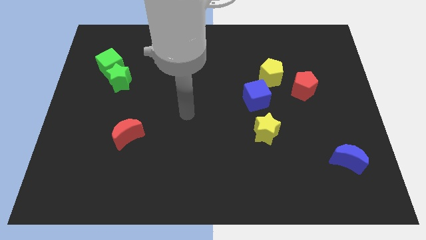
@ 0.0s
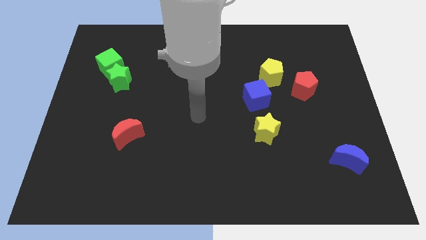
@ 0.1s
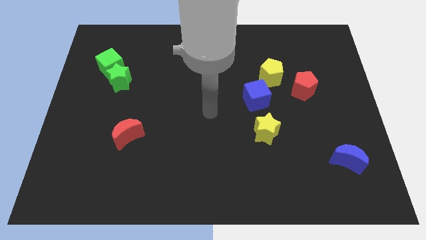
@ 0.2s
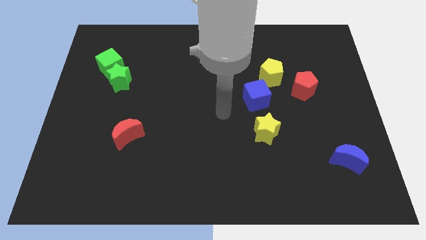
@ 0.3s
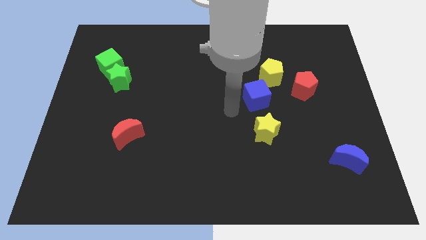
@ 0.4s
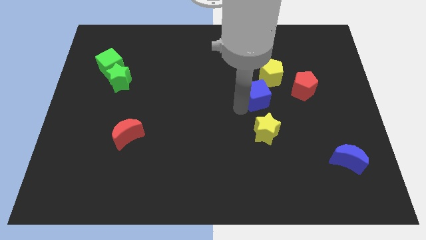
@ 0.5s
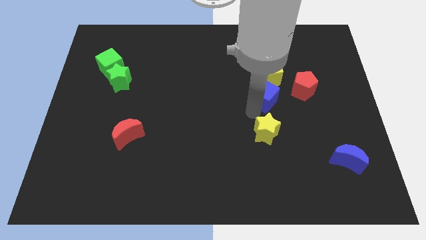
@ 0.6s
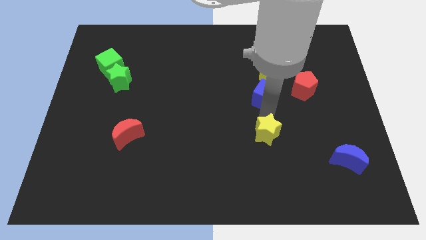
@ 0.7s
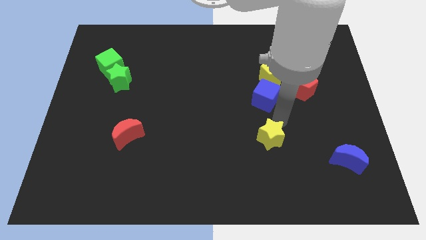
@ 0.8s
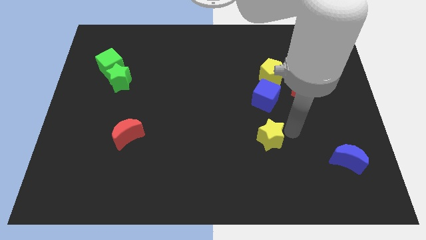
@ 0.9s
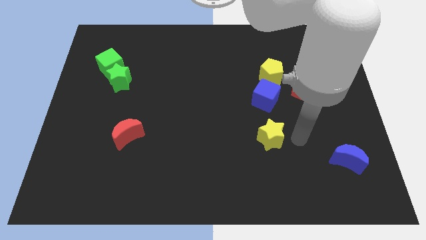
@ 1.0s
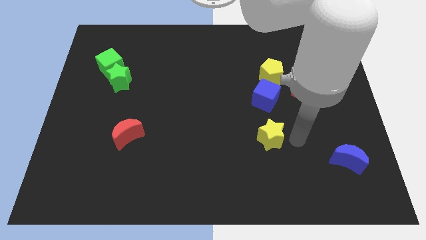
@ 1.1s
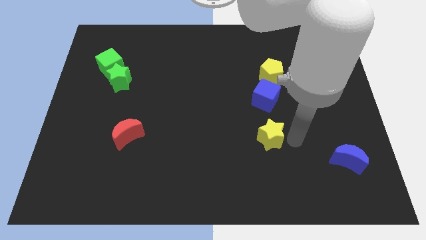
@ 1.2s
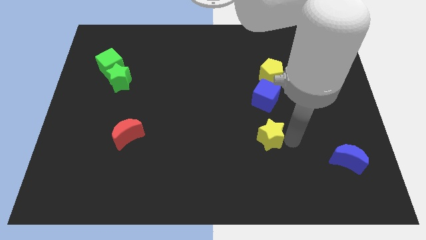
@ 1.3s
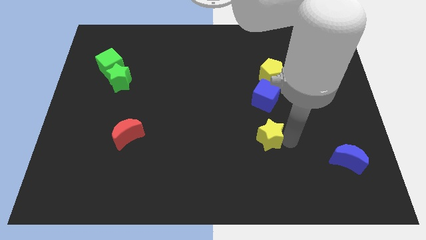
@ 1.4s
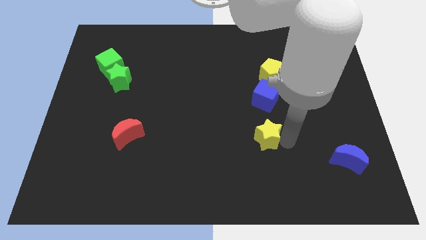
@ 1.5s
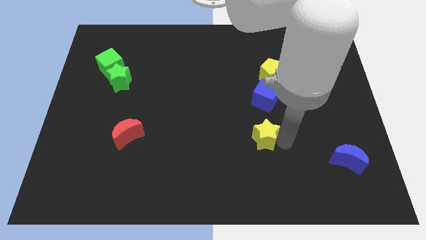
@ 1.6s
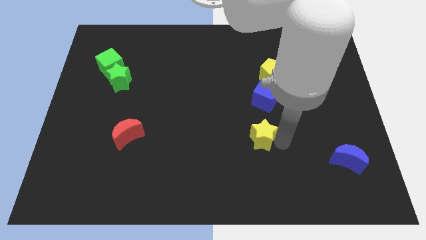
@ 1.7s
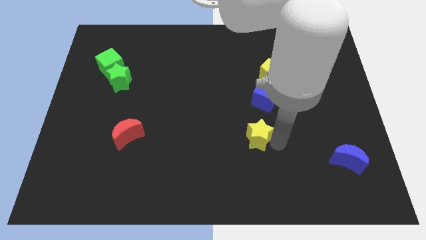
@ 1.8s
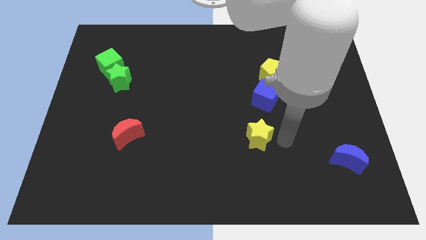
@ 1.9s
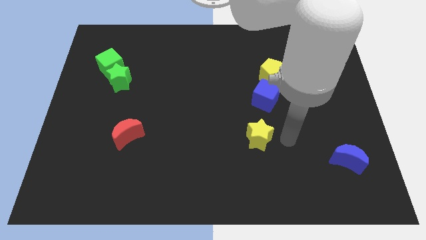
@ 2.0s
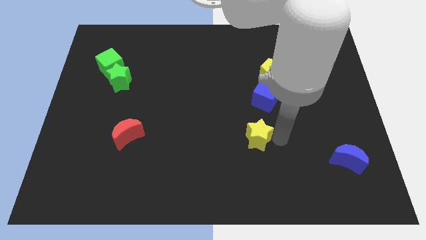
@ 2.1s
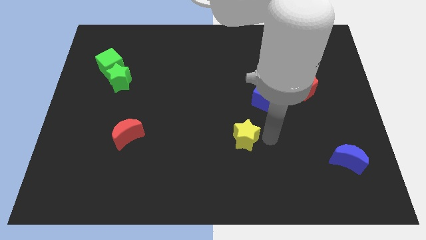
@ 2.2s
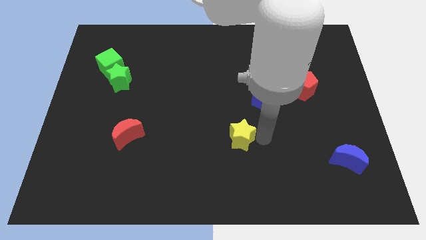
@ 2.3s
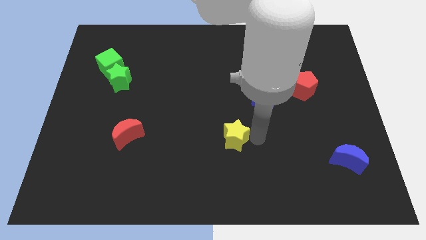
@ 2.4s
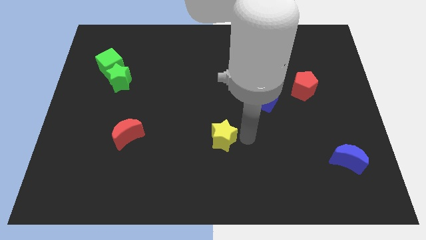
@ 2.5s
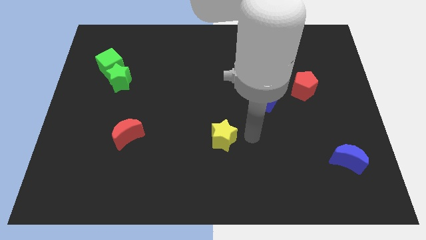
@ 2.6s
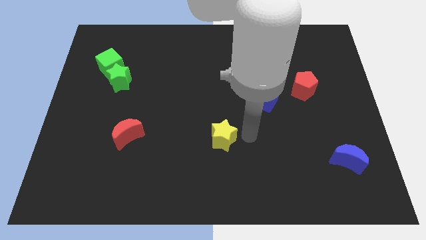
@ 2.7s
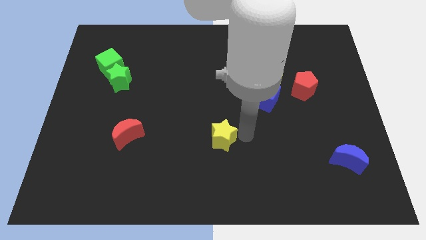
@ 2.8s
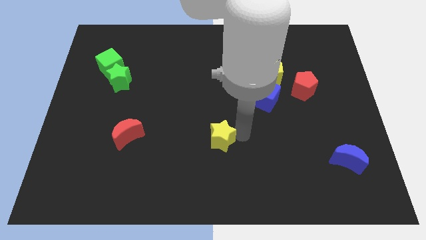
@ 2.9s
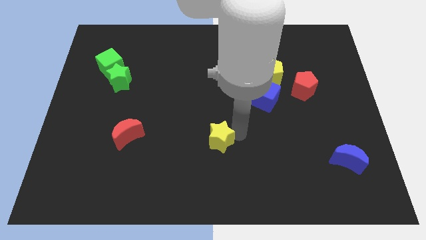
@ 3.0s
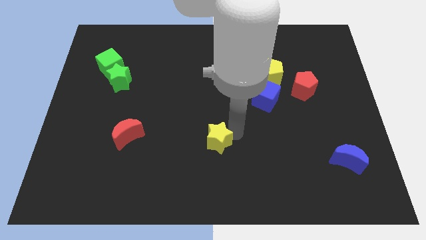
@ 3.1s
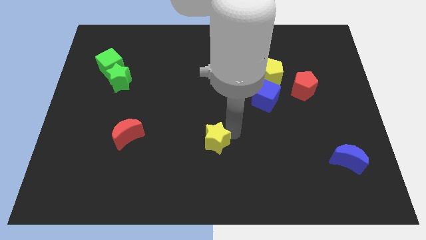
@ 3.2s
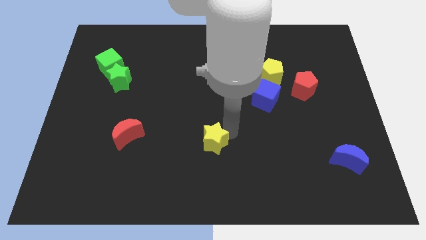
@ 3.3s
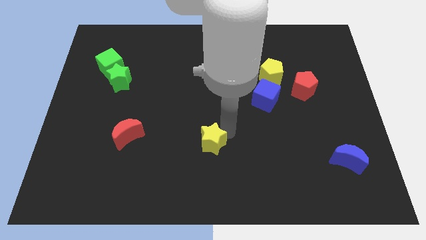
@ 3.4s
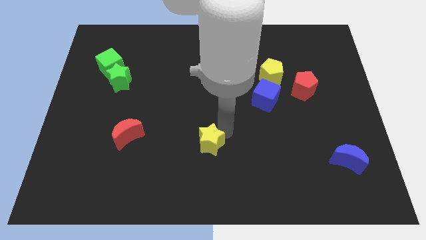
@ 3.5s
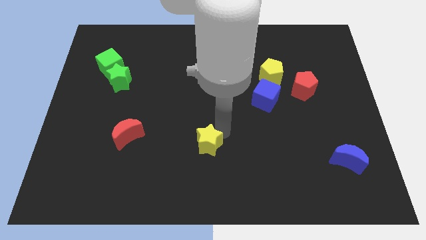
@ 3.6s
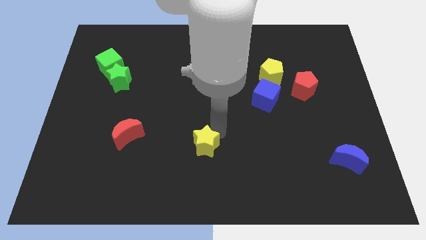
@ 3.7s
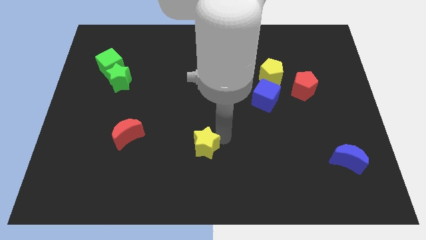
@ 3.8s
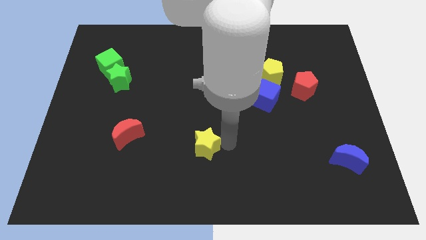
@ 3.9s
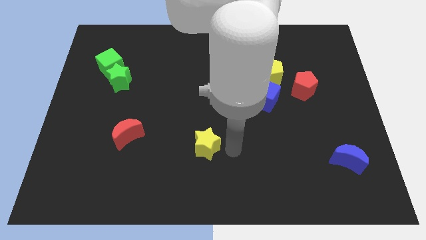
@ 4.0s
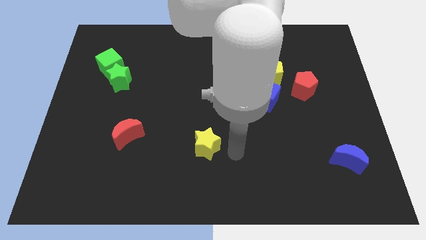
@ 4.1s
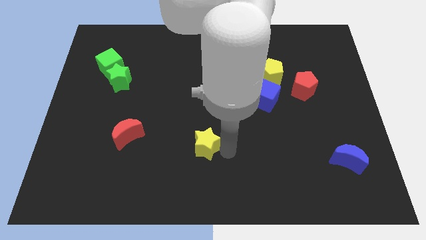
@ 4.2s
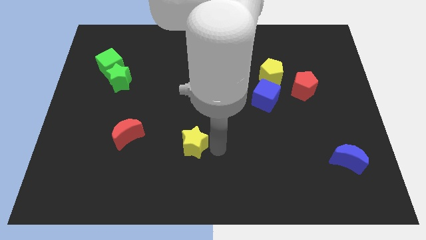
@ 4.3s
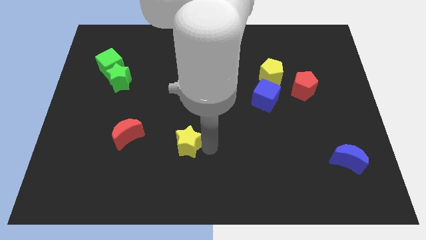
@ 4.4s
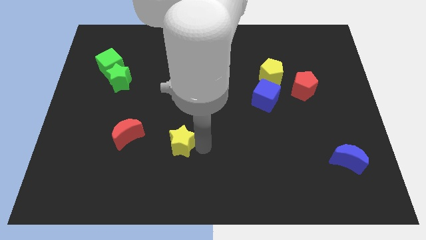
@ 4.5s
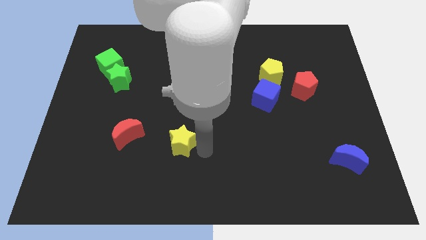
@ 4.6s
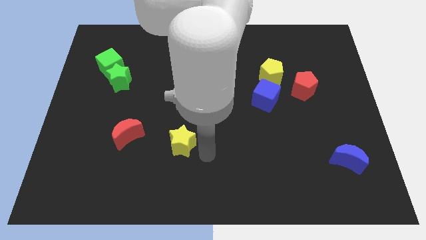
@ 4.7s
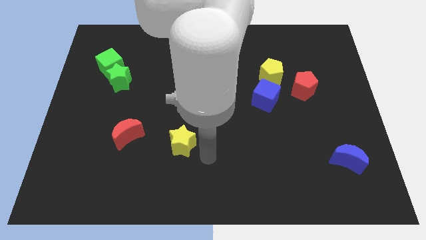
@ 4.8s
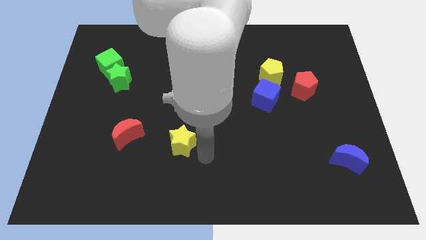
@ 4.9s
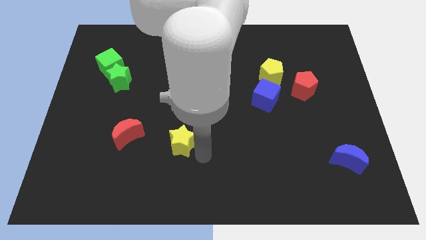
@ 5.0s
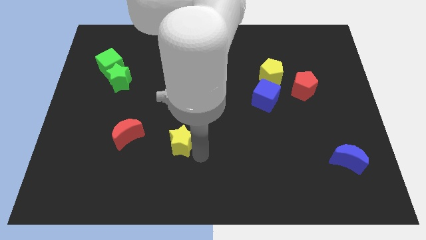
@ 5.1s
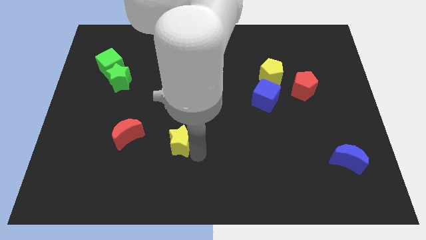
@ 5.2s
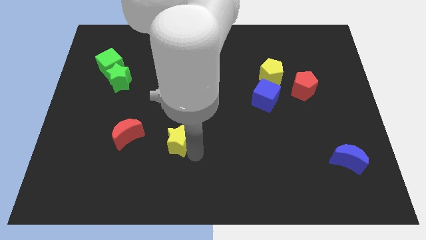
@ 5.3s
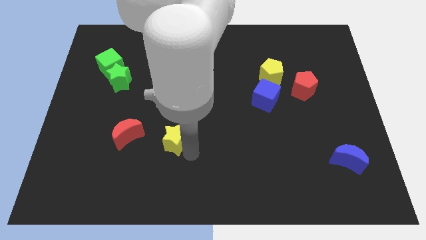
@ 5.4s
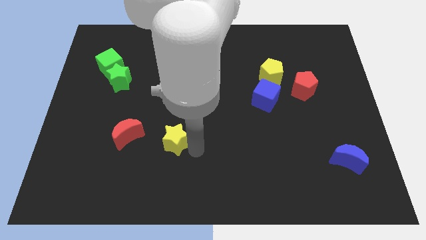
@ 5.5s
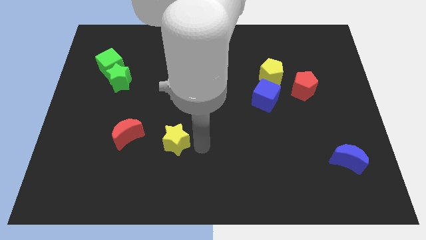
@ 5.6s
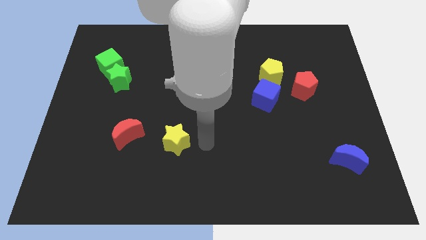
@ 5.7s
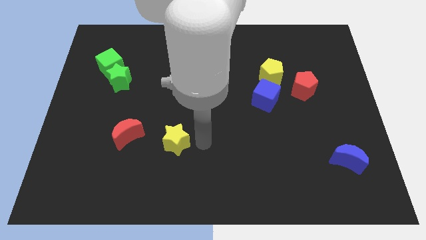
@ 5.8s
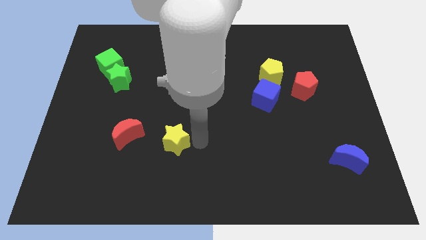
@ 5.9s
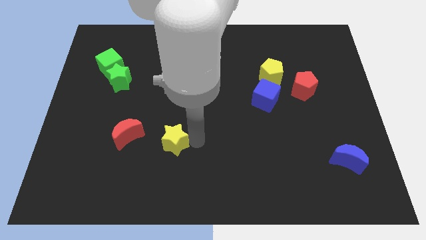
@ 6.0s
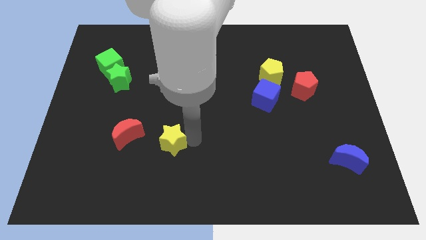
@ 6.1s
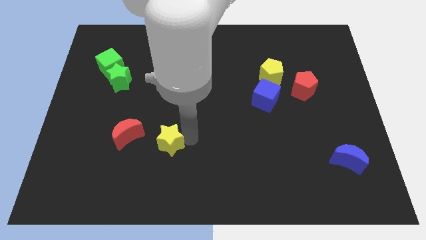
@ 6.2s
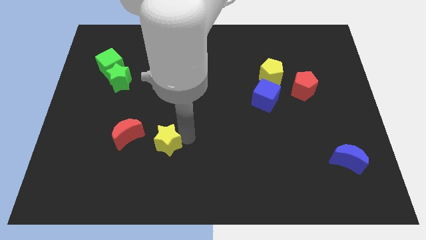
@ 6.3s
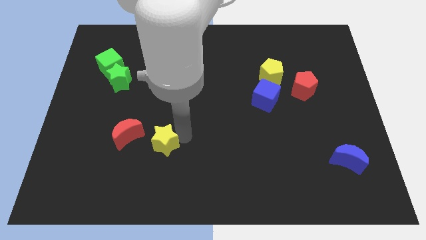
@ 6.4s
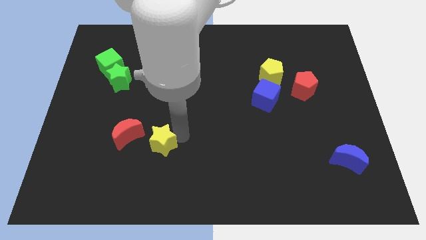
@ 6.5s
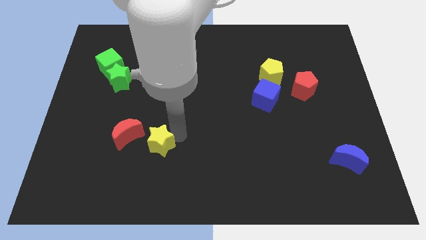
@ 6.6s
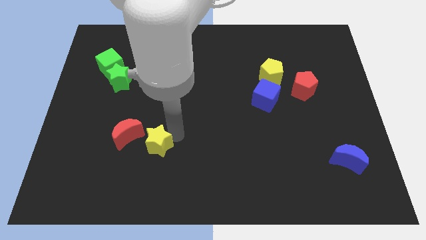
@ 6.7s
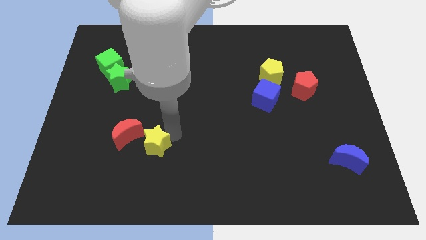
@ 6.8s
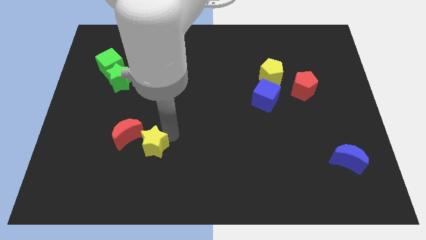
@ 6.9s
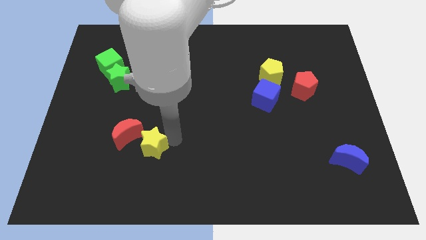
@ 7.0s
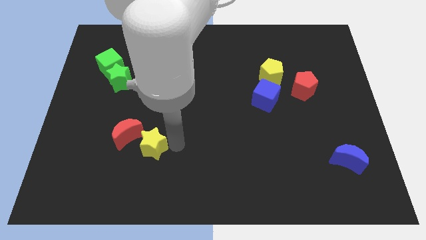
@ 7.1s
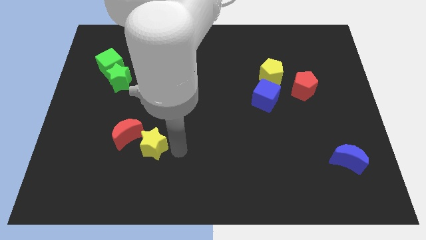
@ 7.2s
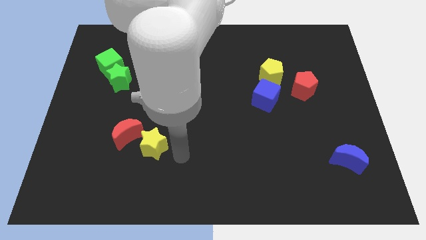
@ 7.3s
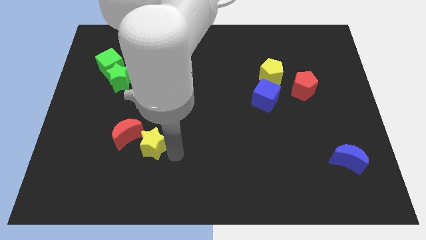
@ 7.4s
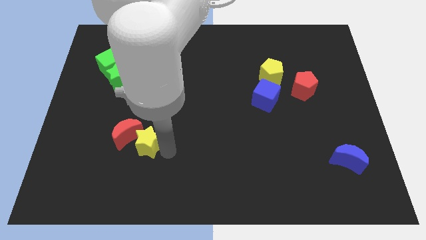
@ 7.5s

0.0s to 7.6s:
push the yellow star next to the red moon
